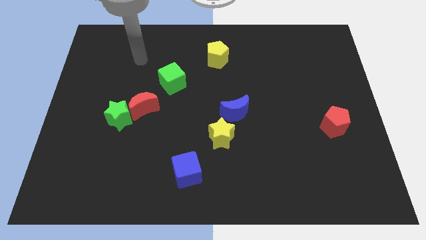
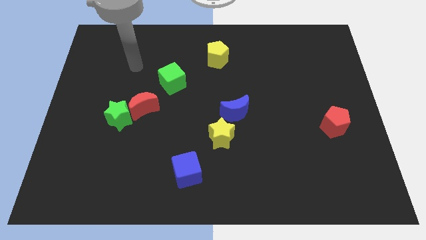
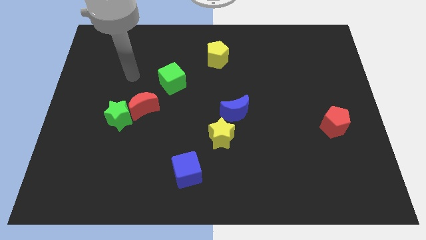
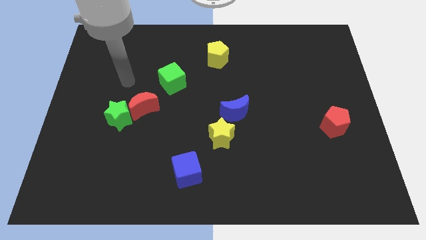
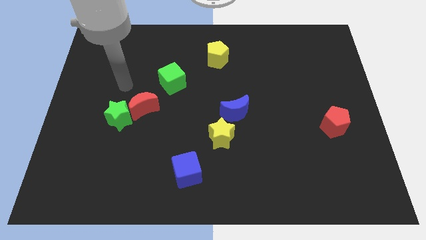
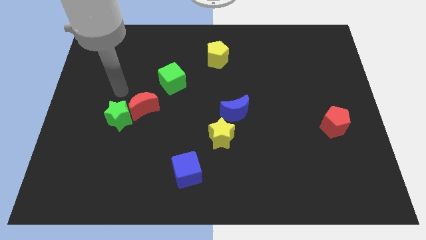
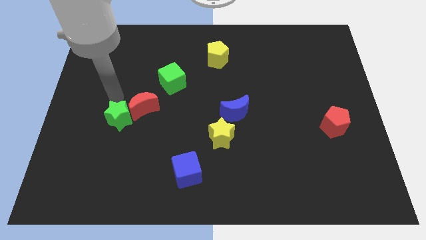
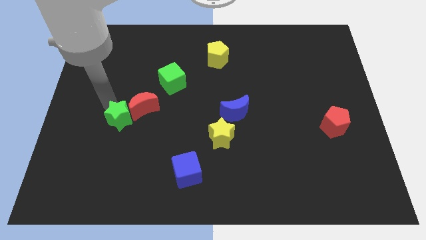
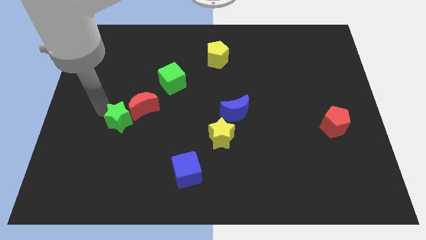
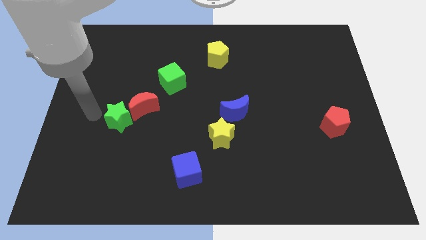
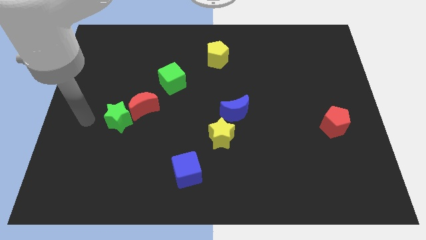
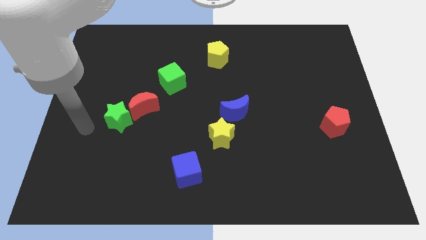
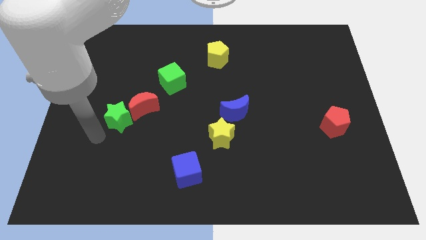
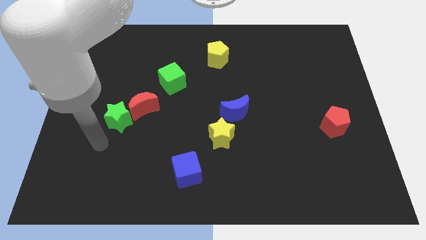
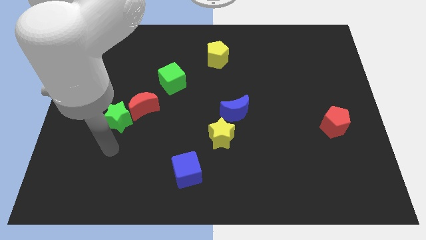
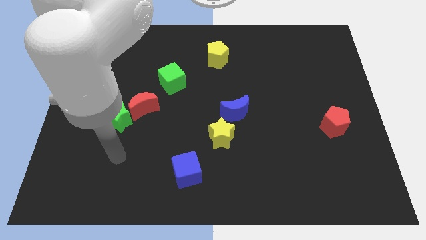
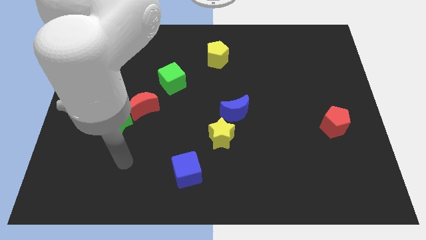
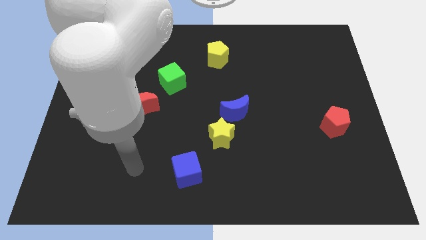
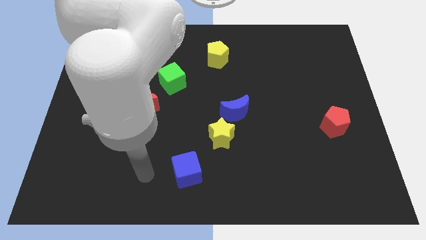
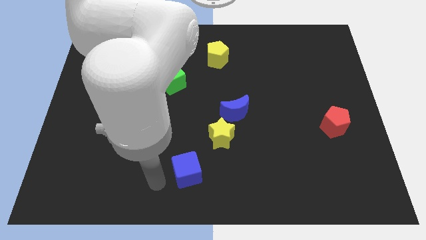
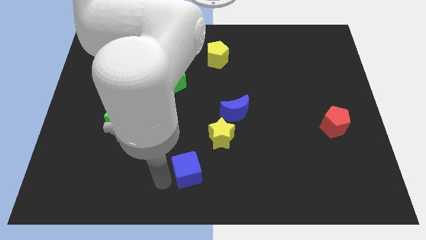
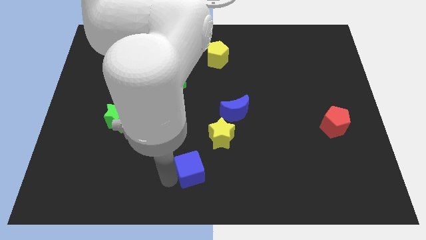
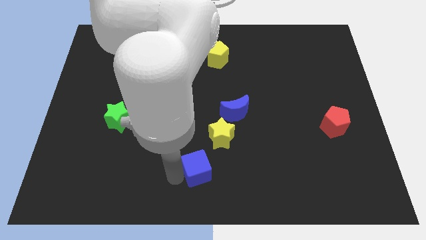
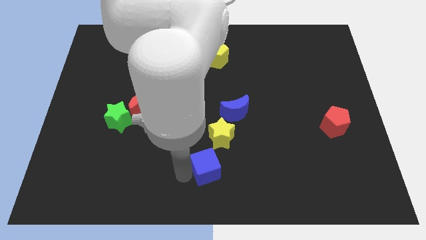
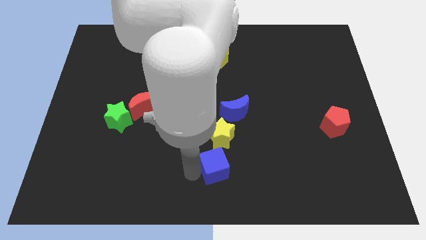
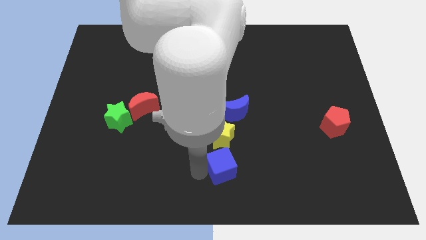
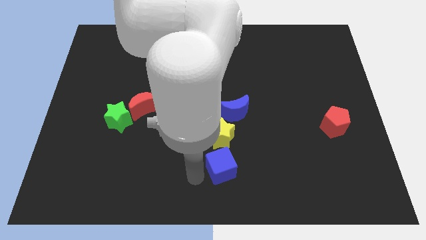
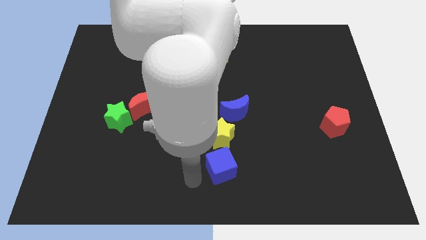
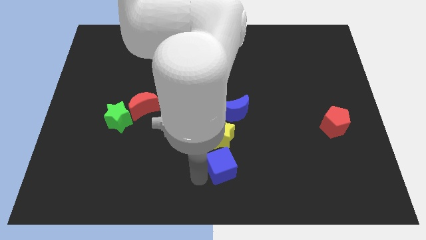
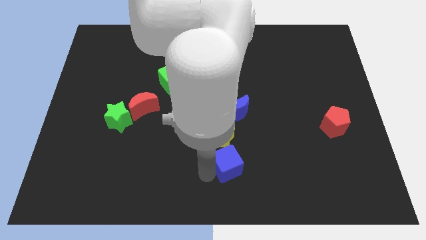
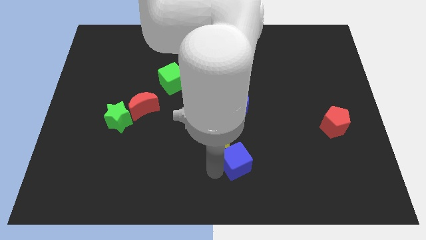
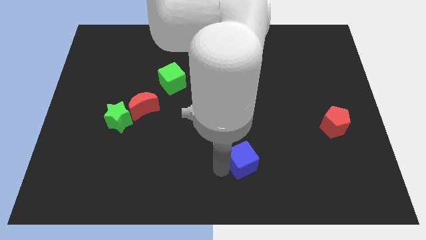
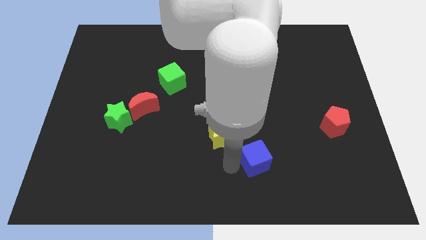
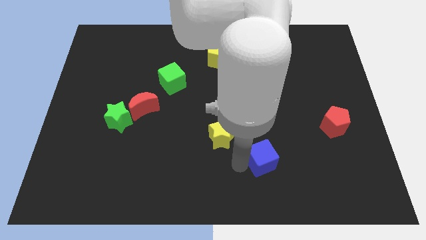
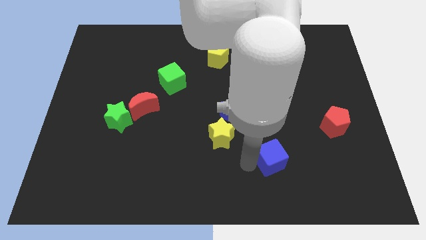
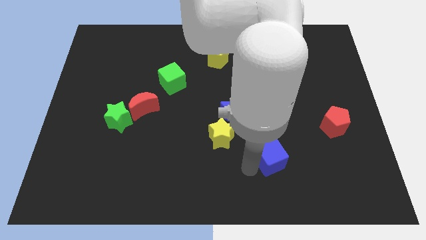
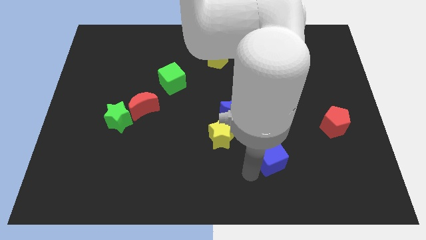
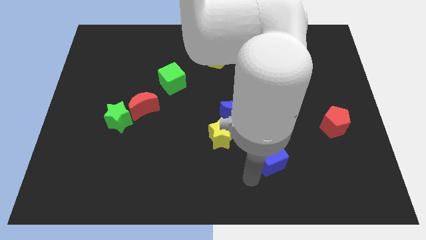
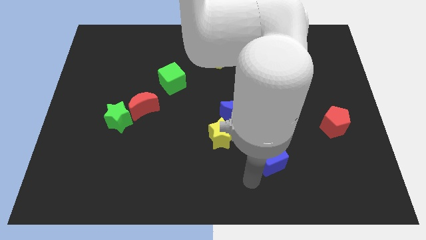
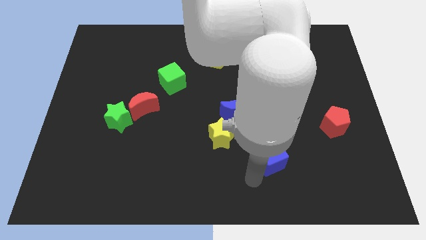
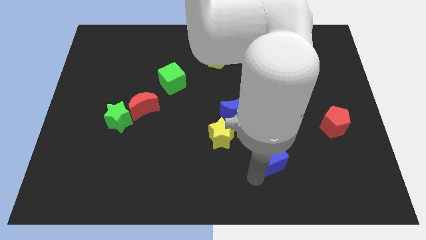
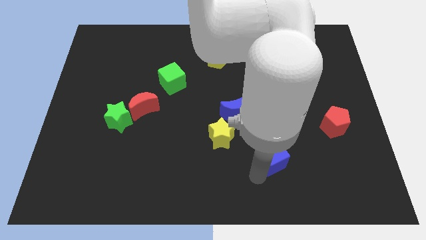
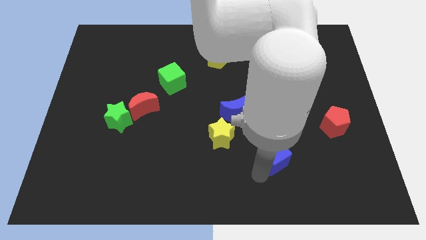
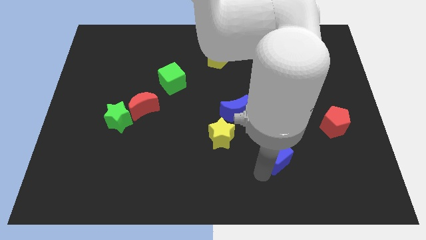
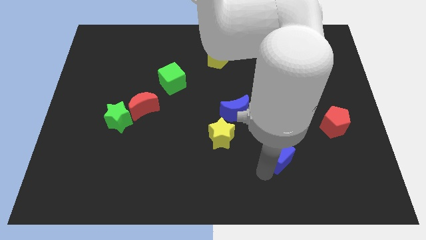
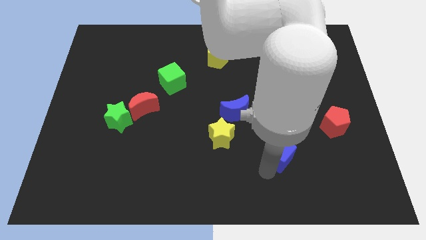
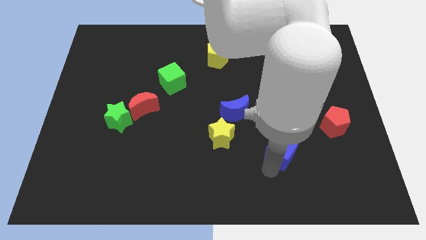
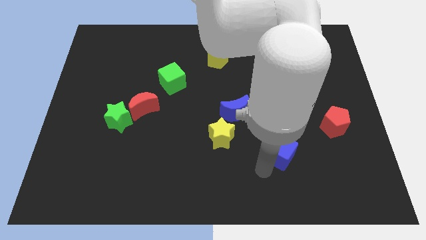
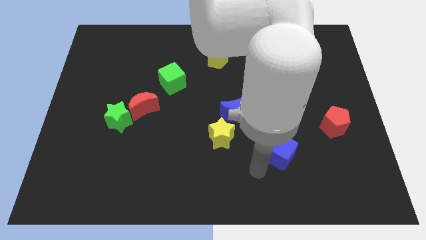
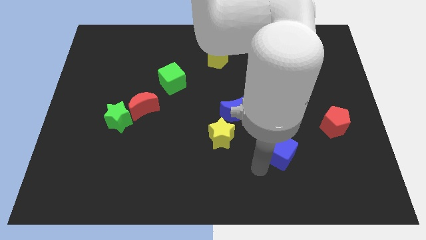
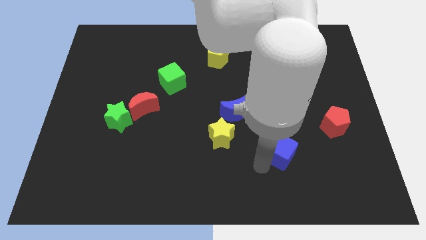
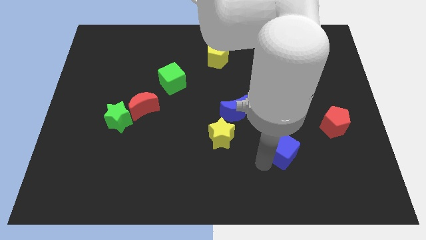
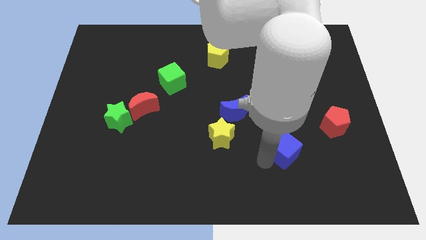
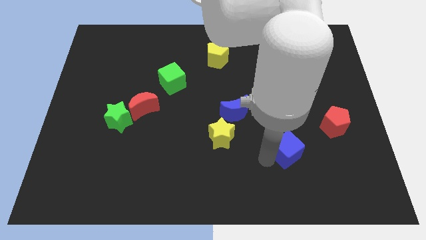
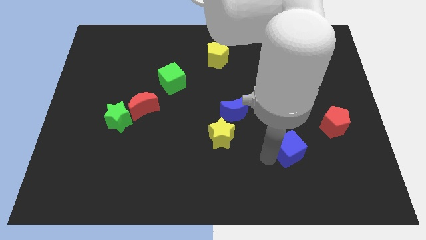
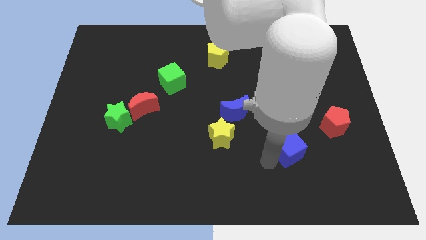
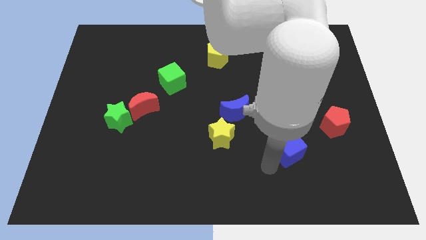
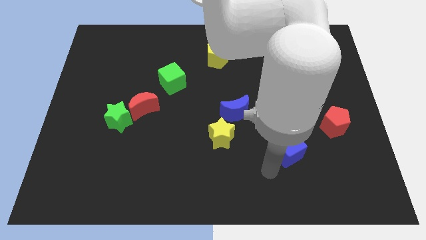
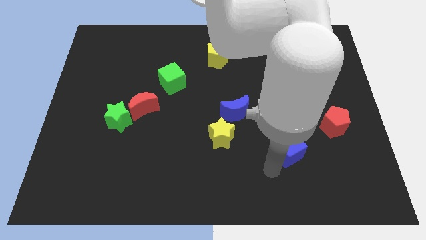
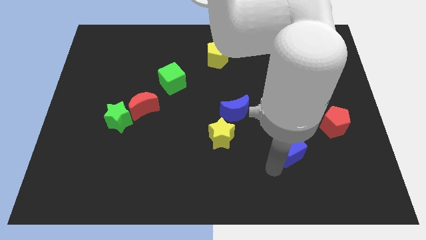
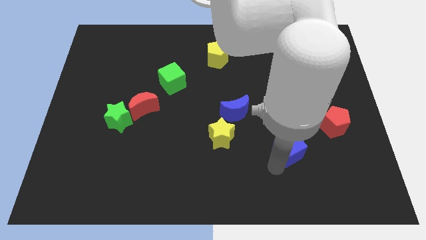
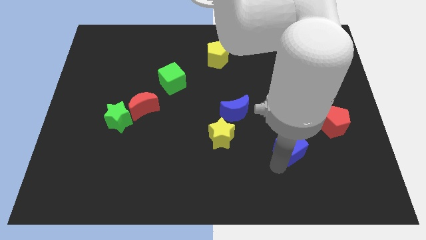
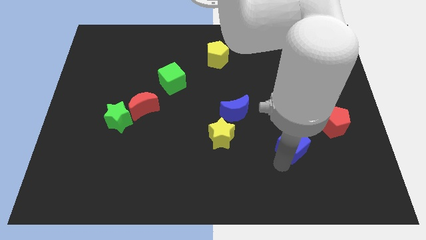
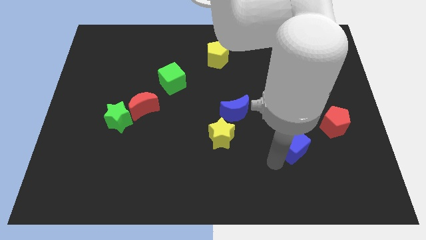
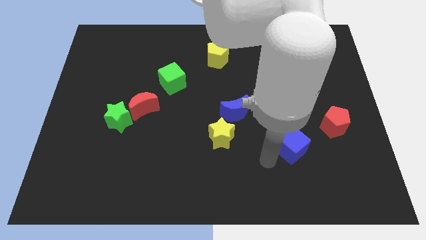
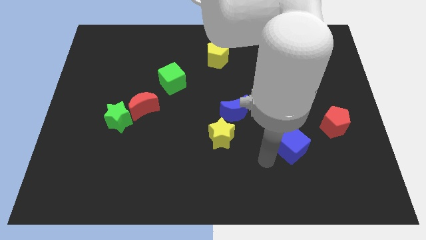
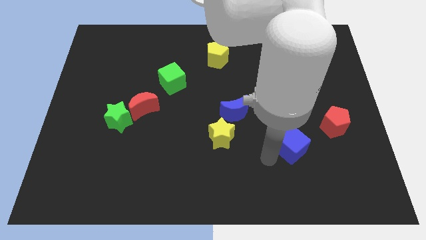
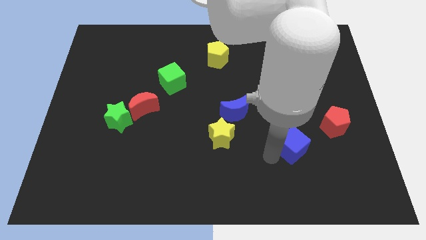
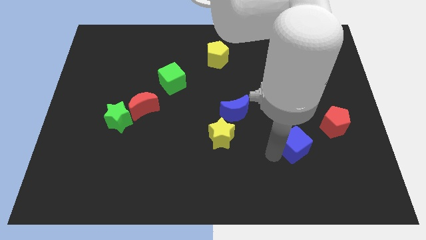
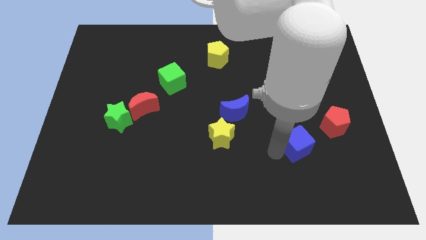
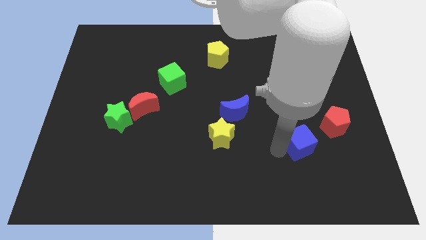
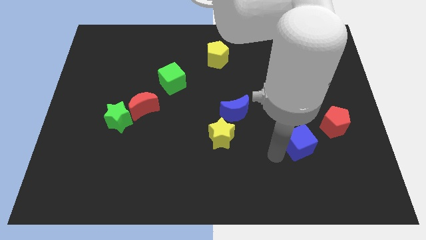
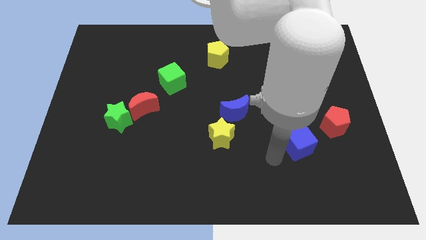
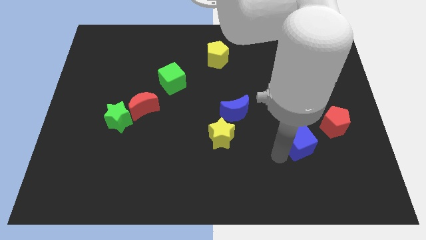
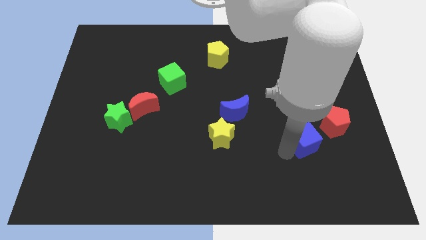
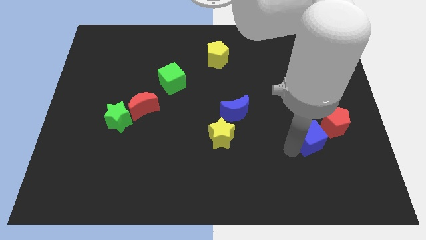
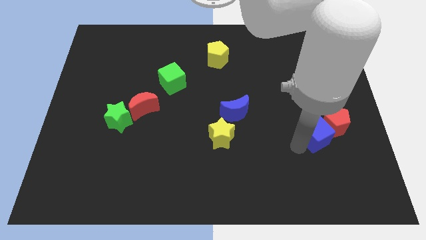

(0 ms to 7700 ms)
move the blue cube to the red pentagon
